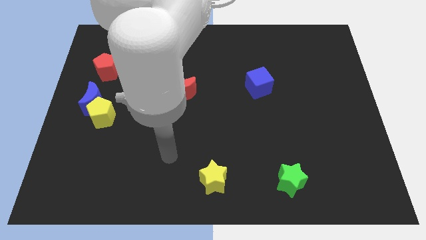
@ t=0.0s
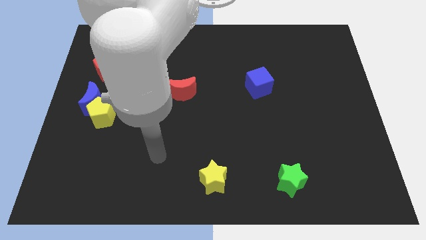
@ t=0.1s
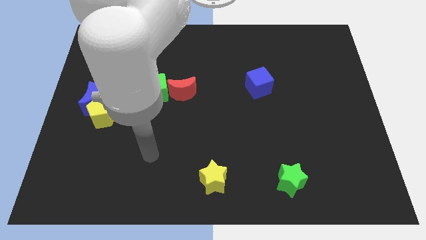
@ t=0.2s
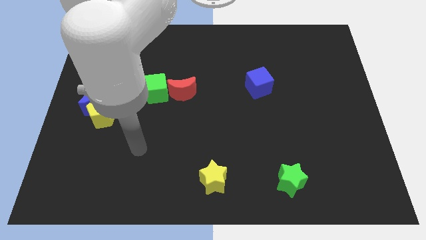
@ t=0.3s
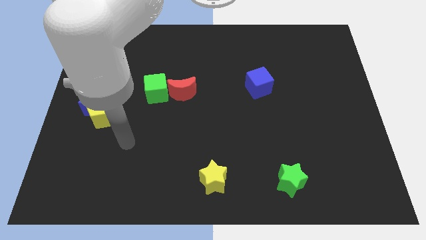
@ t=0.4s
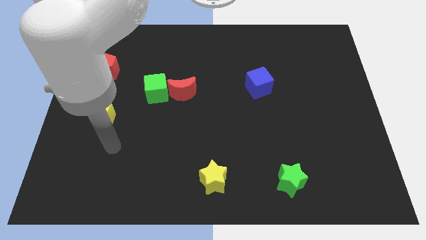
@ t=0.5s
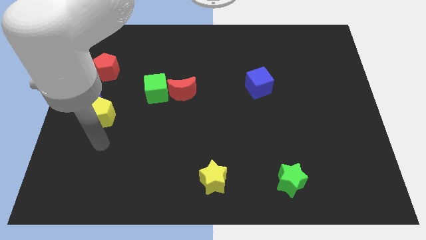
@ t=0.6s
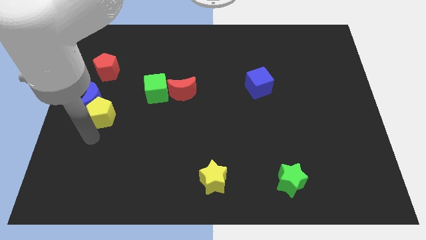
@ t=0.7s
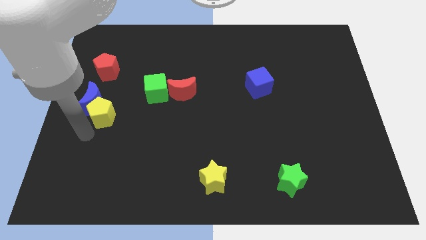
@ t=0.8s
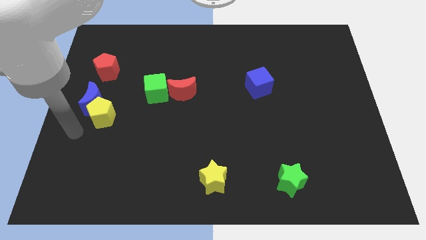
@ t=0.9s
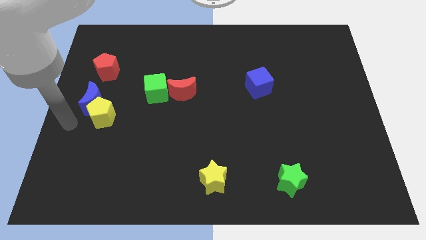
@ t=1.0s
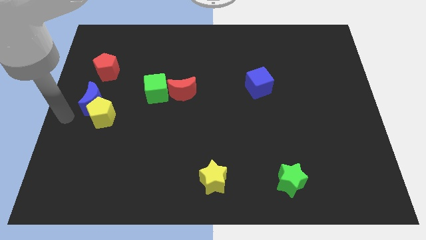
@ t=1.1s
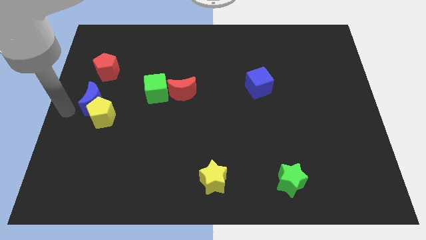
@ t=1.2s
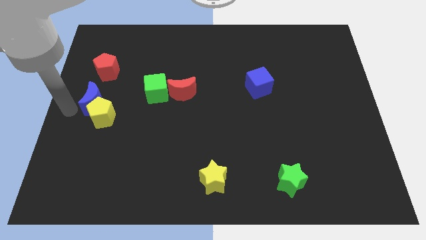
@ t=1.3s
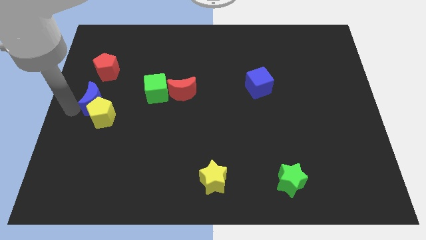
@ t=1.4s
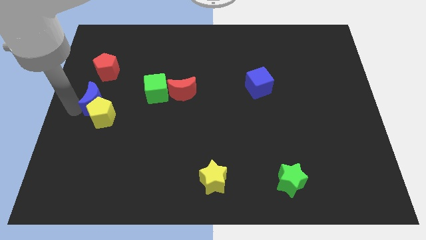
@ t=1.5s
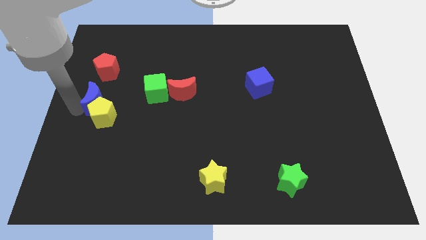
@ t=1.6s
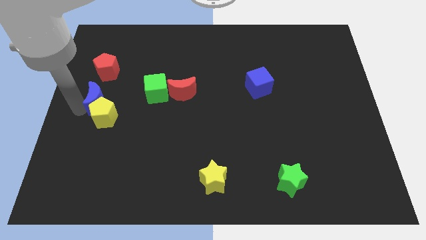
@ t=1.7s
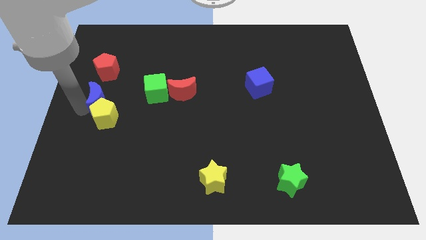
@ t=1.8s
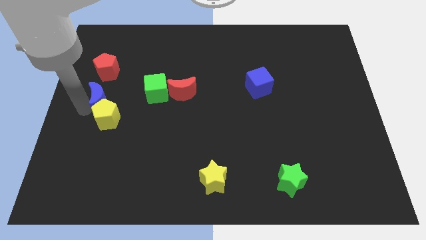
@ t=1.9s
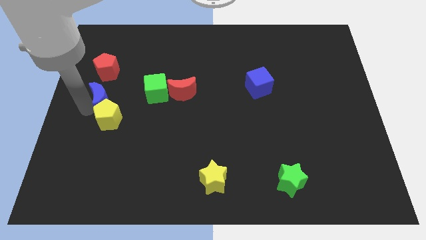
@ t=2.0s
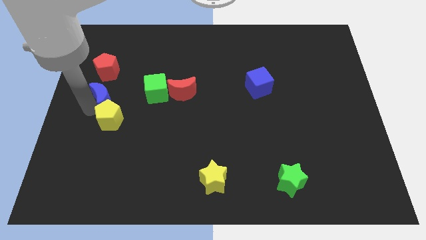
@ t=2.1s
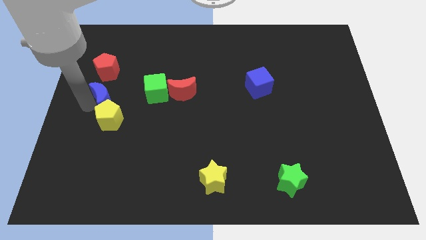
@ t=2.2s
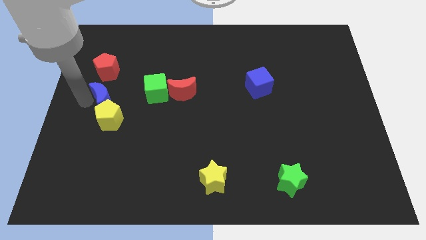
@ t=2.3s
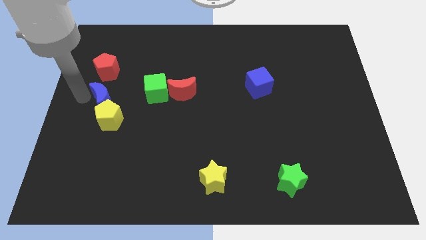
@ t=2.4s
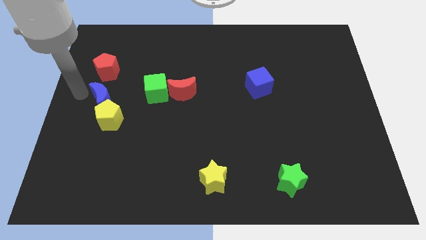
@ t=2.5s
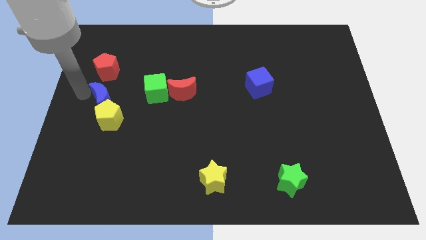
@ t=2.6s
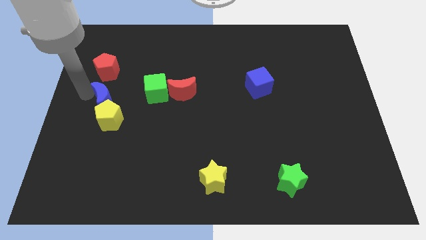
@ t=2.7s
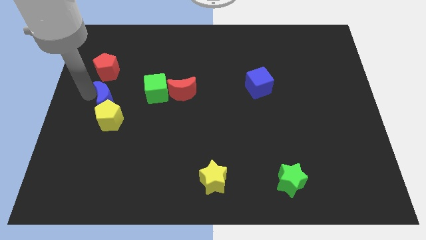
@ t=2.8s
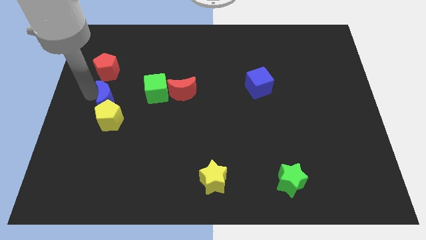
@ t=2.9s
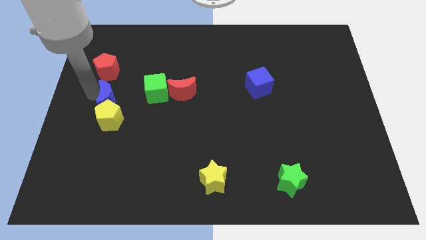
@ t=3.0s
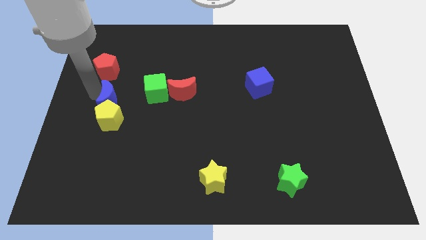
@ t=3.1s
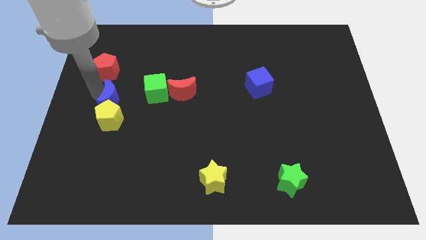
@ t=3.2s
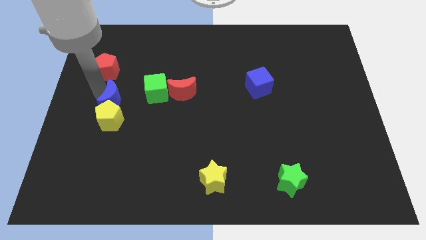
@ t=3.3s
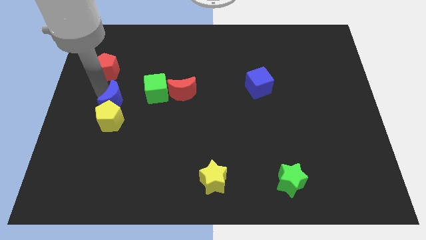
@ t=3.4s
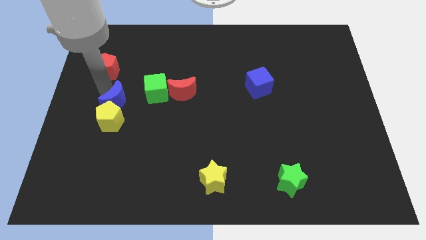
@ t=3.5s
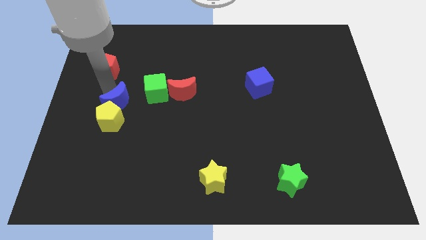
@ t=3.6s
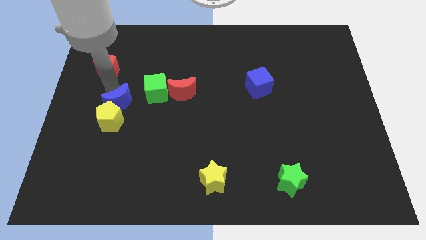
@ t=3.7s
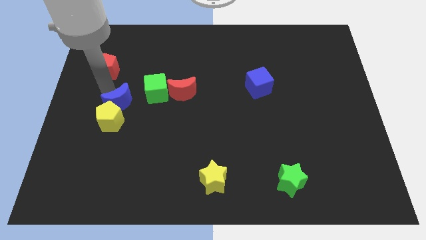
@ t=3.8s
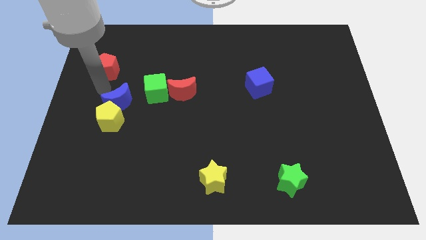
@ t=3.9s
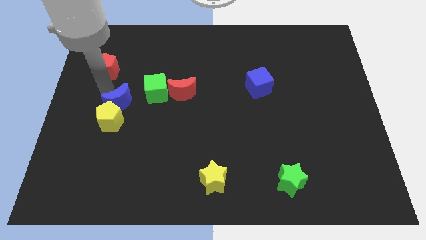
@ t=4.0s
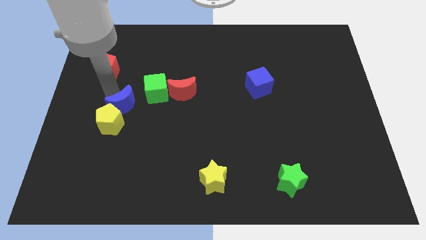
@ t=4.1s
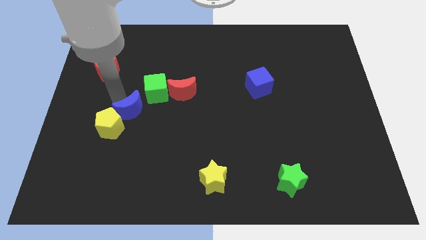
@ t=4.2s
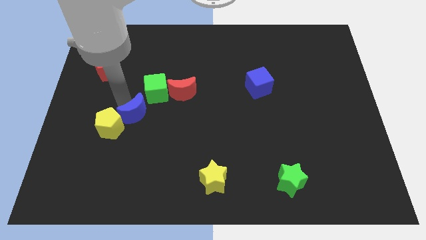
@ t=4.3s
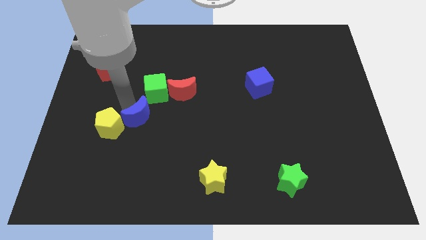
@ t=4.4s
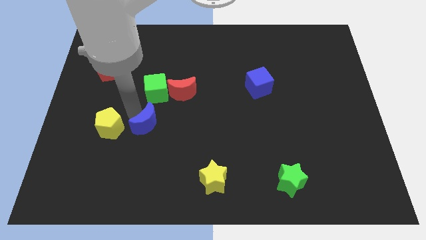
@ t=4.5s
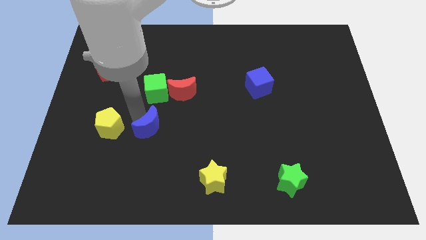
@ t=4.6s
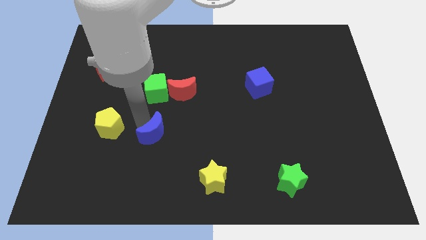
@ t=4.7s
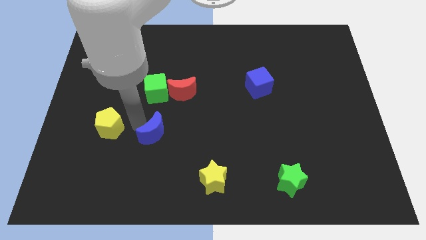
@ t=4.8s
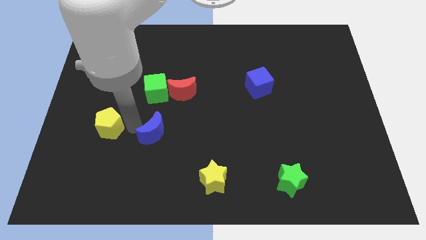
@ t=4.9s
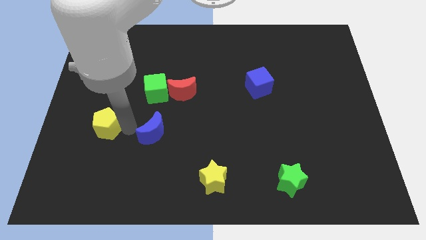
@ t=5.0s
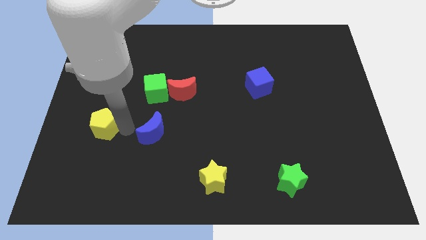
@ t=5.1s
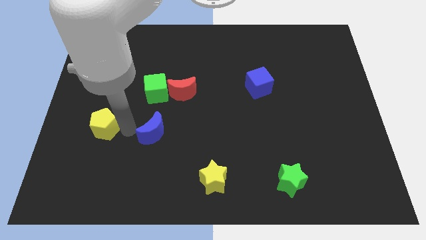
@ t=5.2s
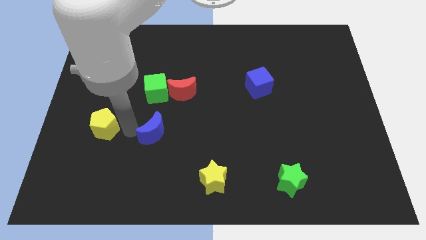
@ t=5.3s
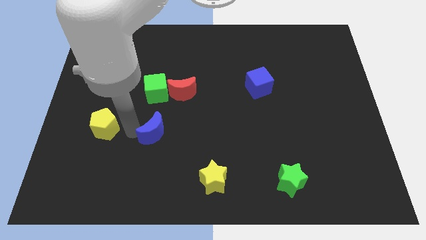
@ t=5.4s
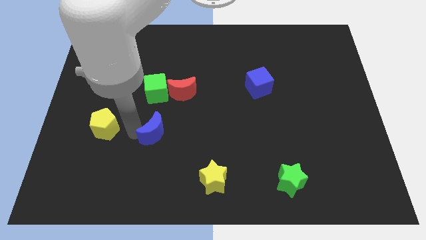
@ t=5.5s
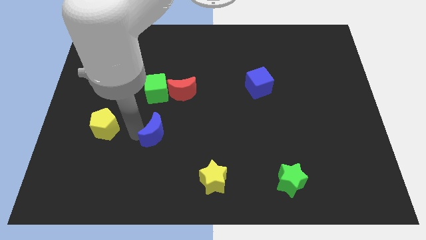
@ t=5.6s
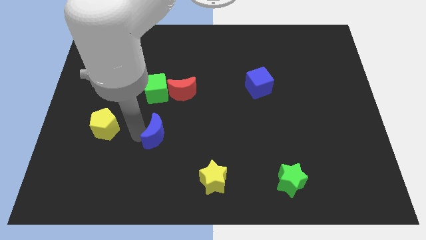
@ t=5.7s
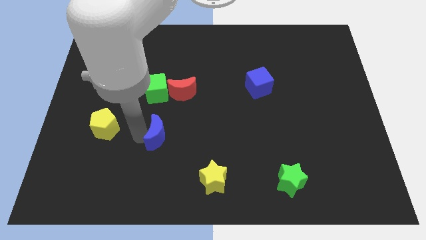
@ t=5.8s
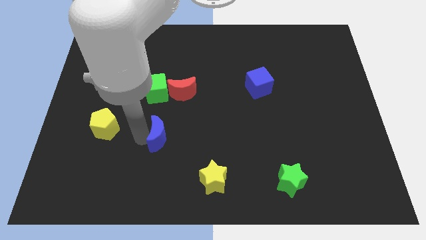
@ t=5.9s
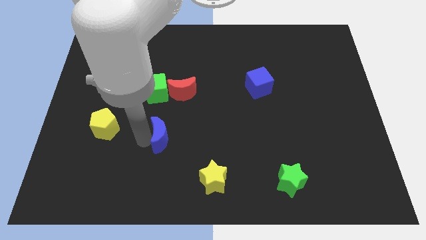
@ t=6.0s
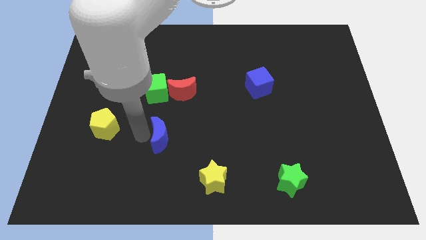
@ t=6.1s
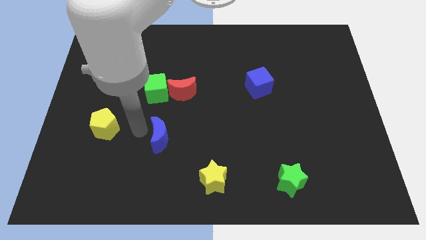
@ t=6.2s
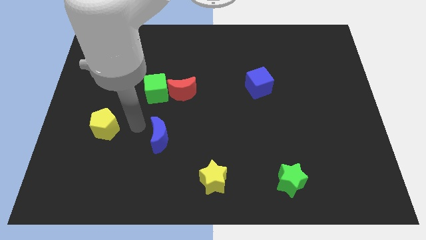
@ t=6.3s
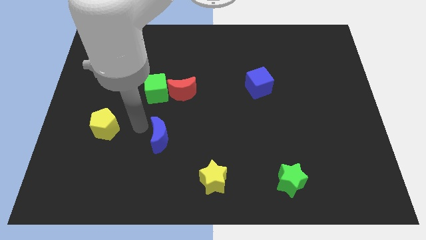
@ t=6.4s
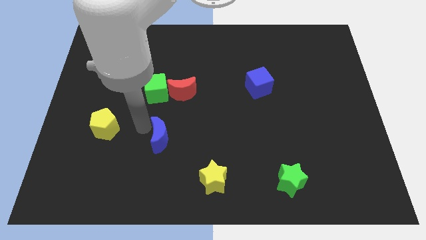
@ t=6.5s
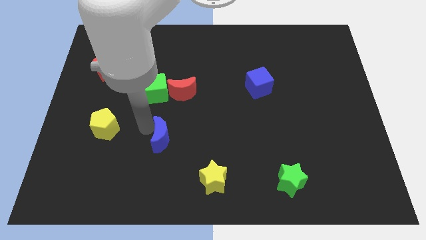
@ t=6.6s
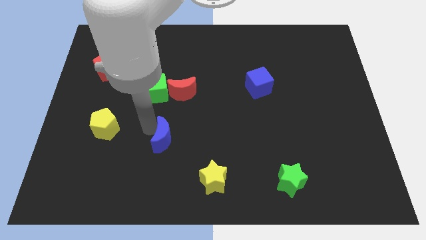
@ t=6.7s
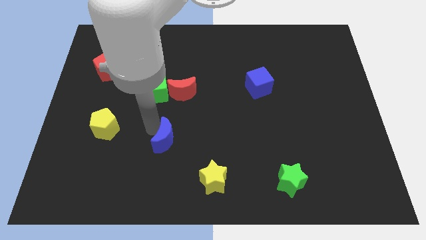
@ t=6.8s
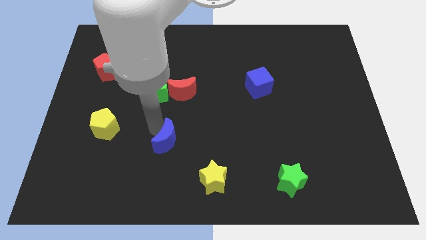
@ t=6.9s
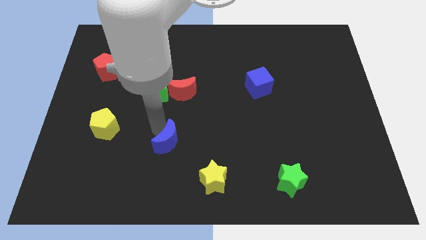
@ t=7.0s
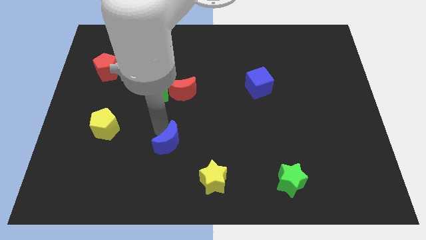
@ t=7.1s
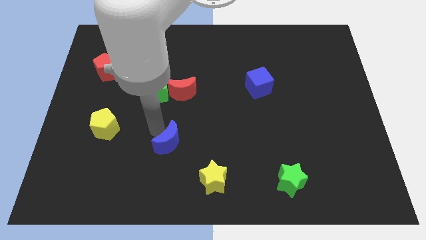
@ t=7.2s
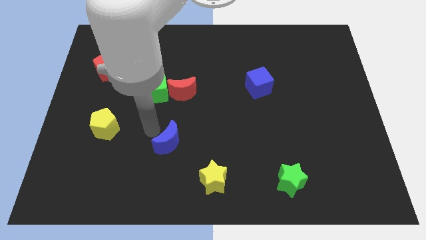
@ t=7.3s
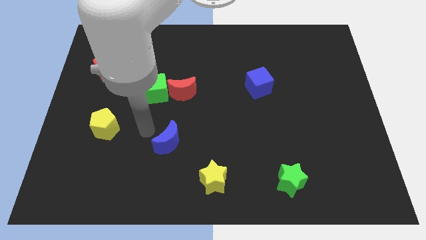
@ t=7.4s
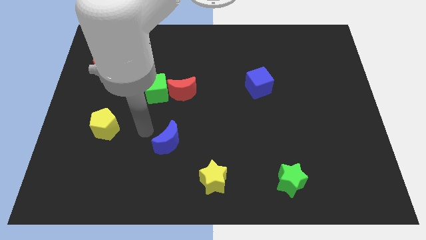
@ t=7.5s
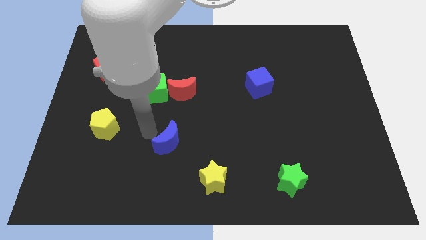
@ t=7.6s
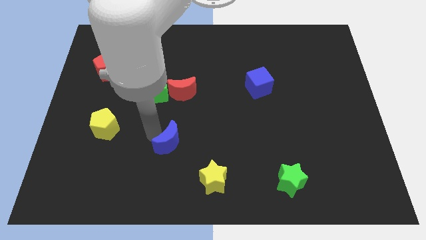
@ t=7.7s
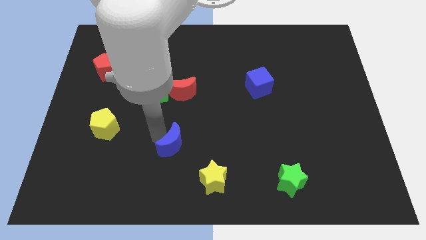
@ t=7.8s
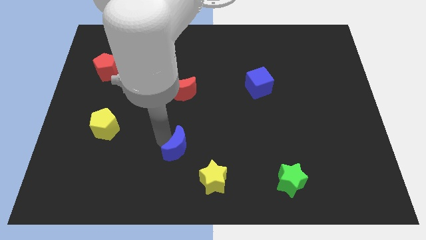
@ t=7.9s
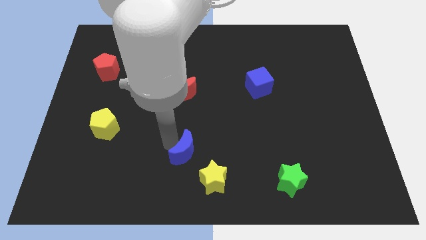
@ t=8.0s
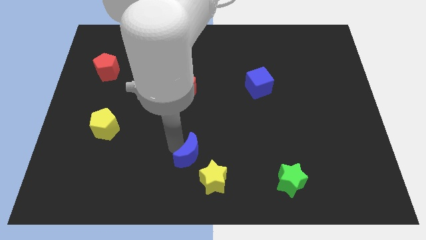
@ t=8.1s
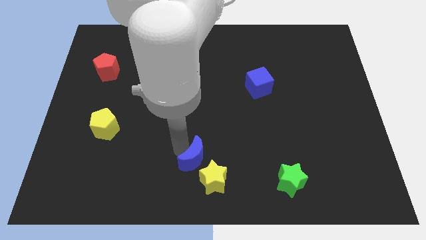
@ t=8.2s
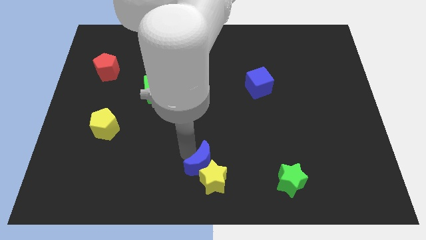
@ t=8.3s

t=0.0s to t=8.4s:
push the blue moon close to the yellow star
